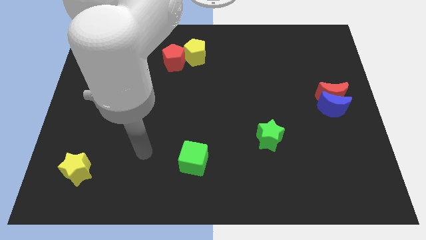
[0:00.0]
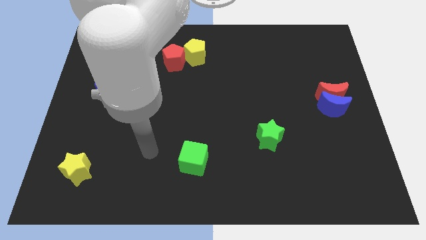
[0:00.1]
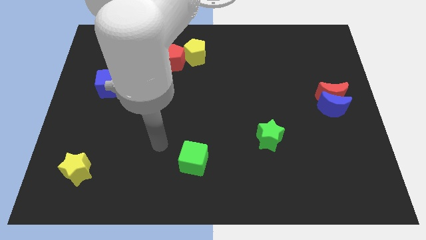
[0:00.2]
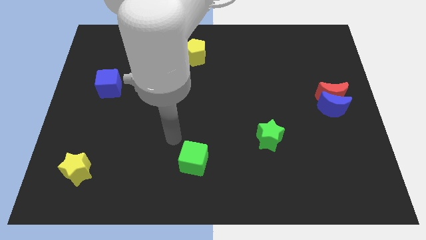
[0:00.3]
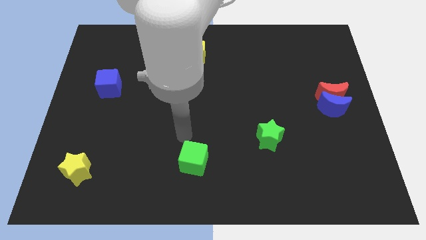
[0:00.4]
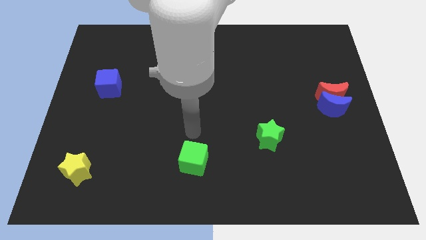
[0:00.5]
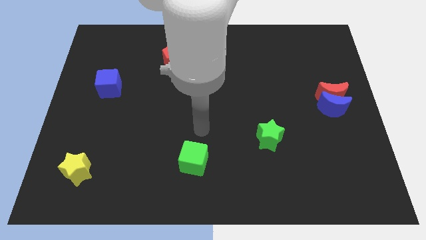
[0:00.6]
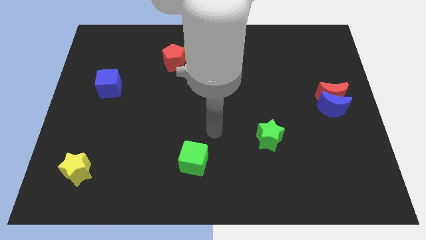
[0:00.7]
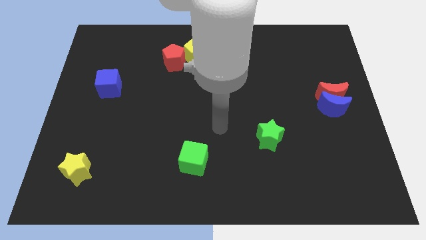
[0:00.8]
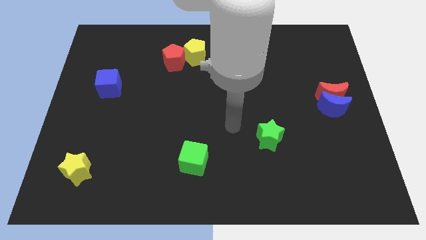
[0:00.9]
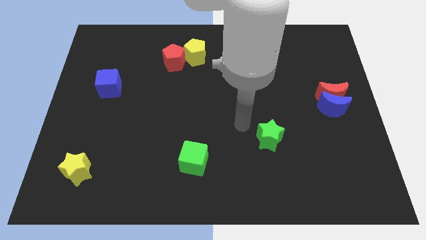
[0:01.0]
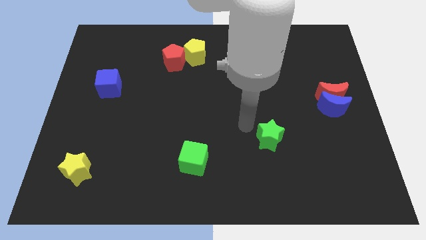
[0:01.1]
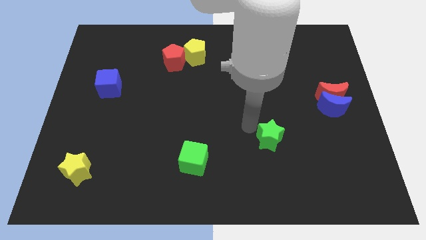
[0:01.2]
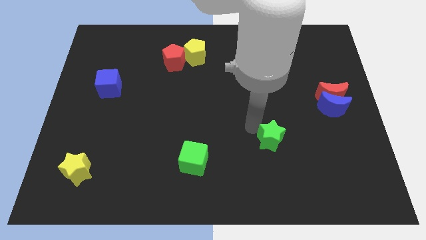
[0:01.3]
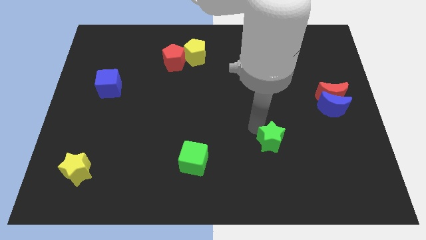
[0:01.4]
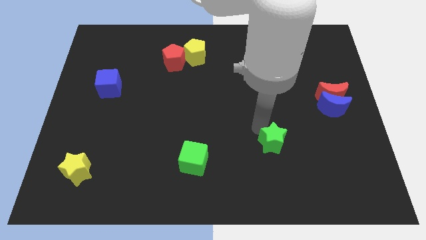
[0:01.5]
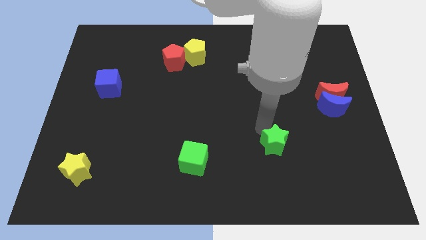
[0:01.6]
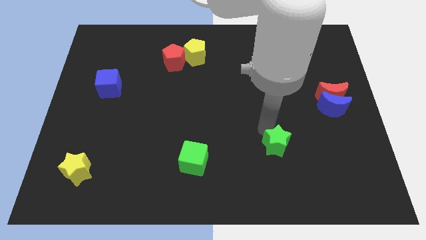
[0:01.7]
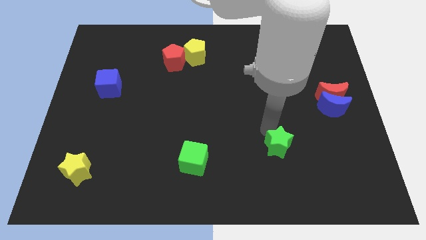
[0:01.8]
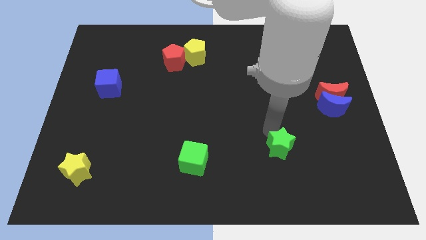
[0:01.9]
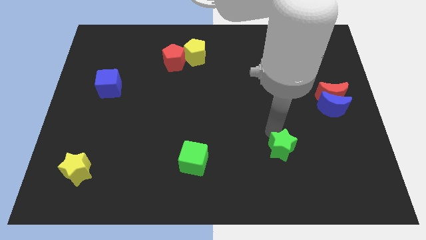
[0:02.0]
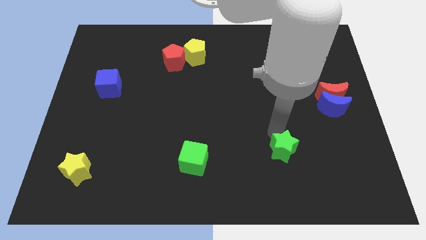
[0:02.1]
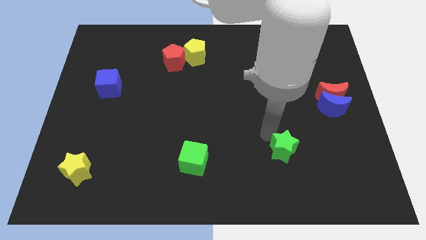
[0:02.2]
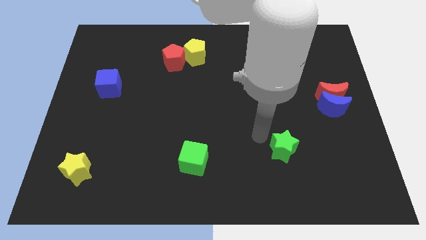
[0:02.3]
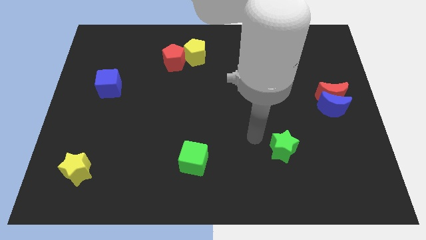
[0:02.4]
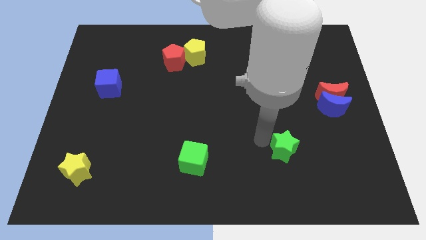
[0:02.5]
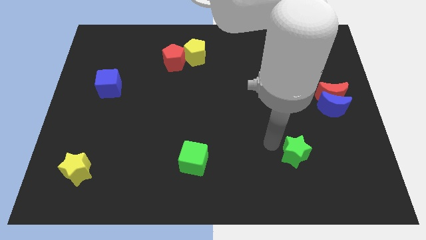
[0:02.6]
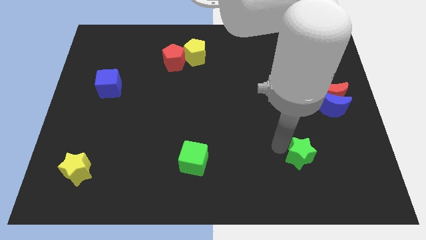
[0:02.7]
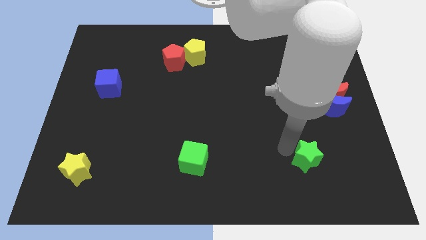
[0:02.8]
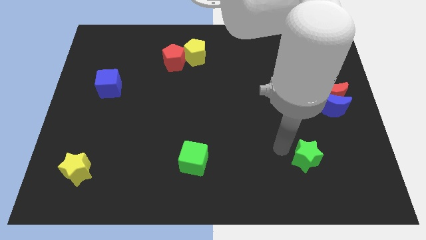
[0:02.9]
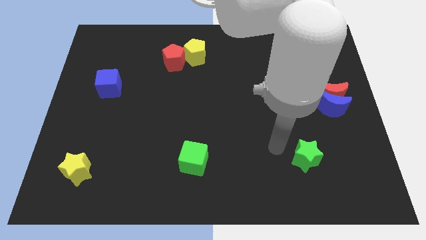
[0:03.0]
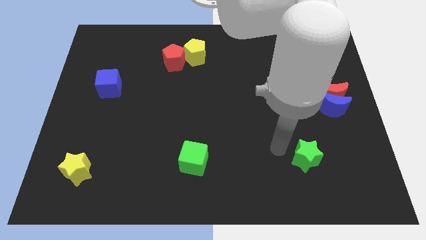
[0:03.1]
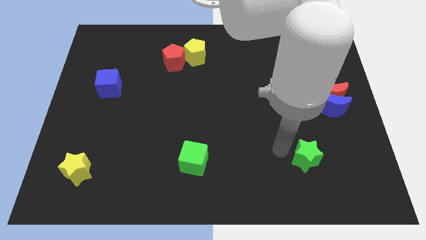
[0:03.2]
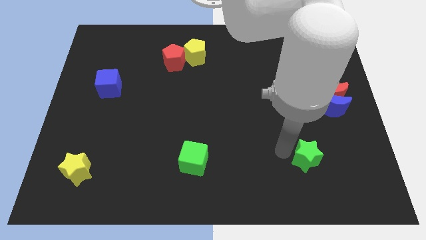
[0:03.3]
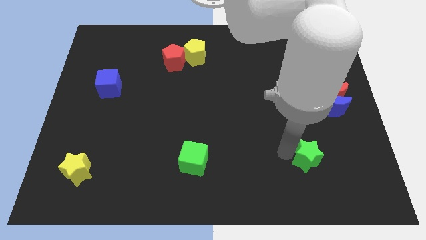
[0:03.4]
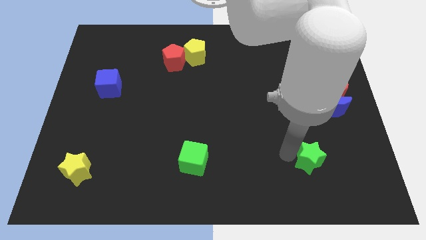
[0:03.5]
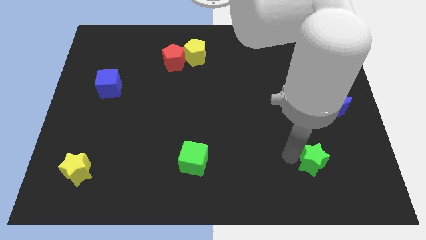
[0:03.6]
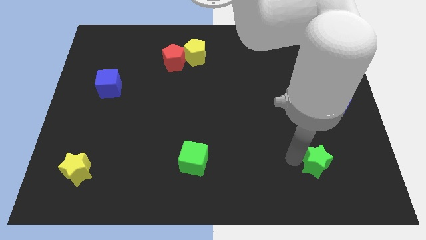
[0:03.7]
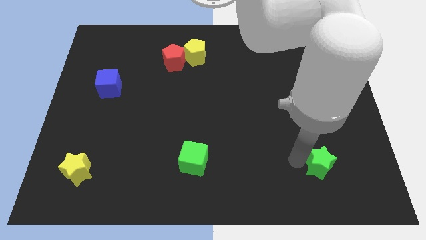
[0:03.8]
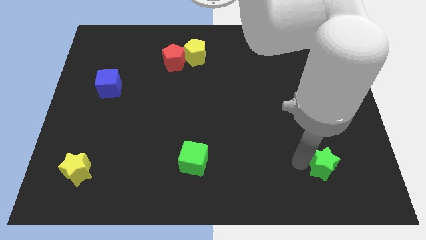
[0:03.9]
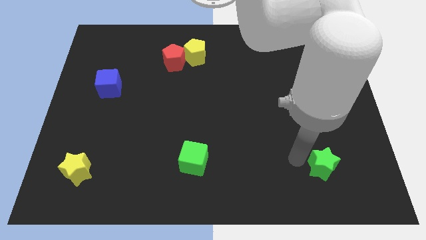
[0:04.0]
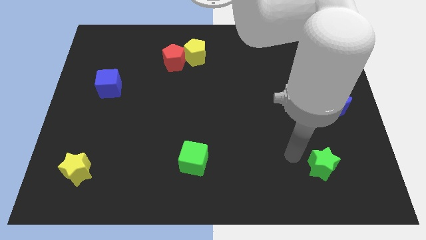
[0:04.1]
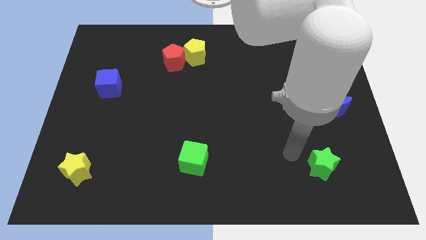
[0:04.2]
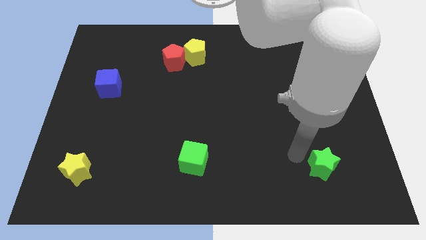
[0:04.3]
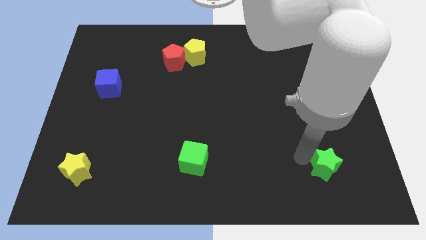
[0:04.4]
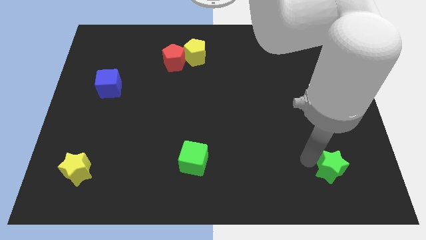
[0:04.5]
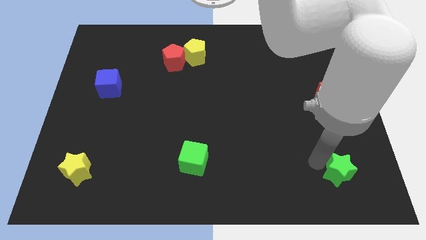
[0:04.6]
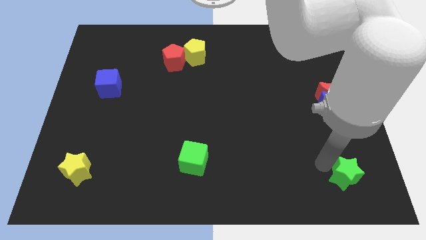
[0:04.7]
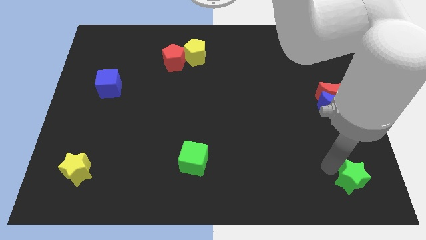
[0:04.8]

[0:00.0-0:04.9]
move the green star to the bottom right of the board

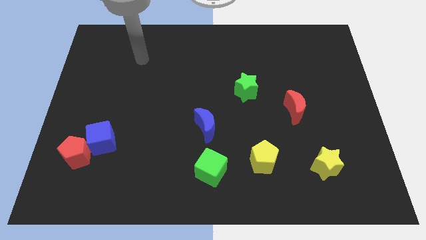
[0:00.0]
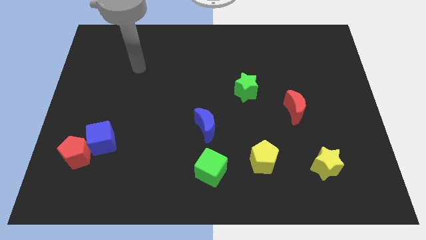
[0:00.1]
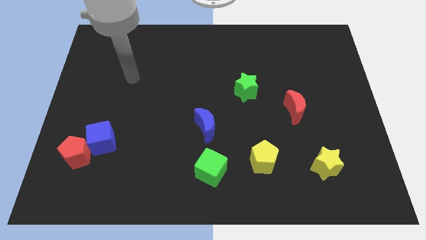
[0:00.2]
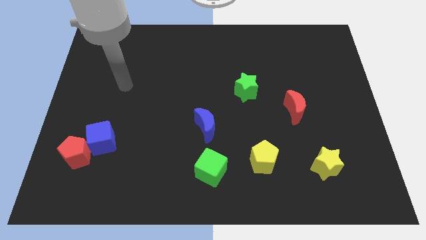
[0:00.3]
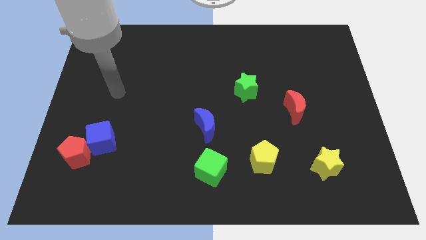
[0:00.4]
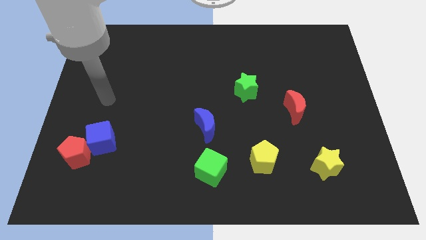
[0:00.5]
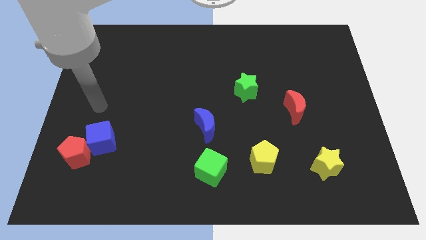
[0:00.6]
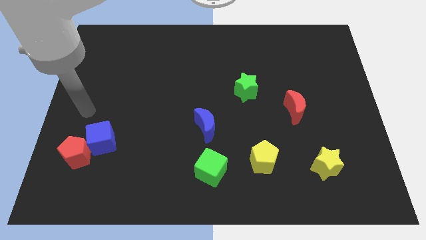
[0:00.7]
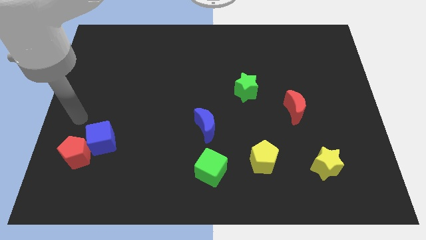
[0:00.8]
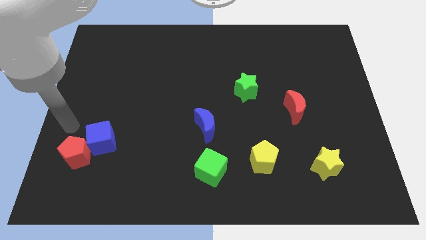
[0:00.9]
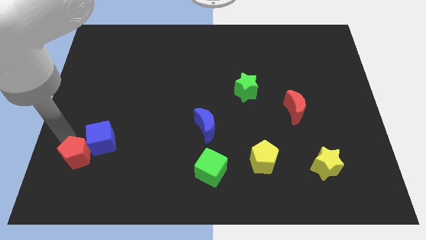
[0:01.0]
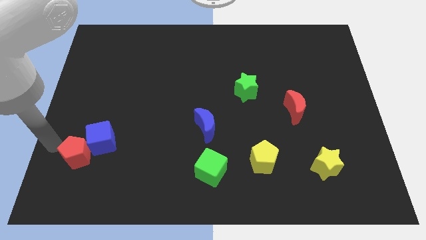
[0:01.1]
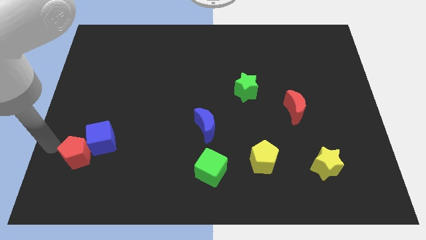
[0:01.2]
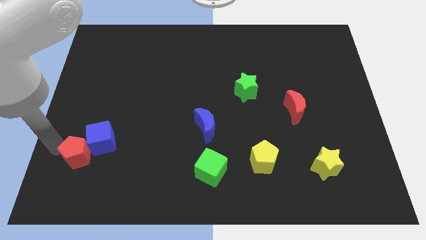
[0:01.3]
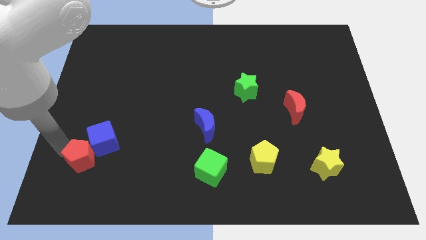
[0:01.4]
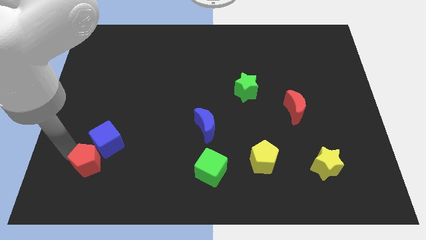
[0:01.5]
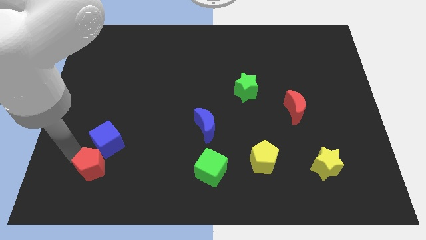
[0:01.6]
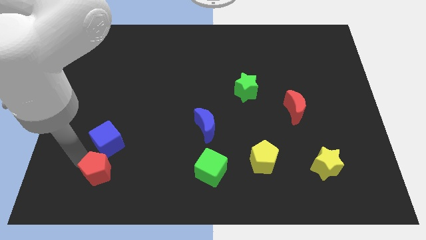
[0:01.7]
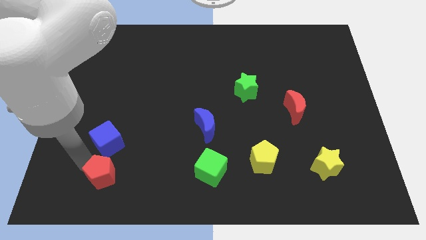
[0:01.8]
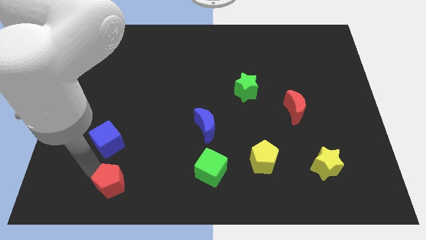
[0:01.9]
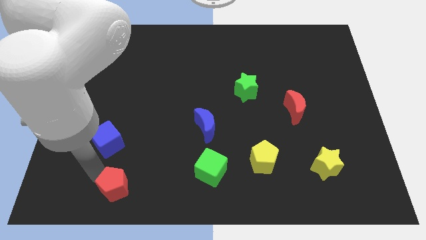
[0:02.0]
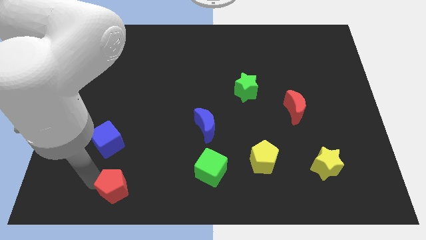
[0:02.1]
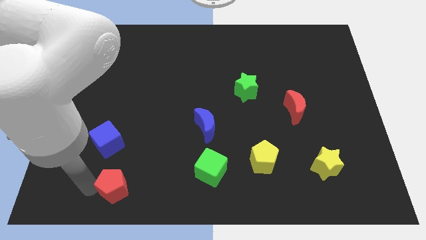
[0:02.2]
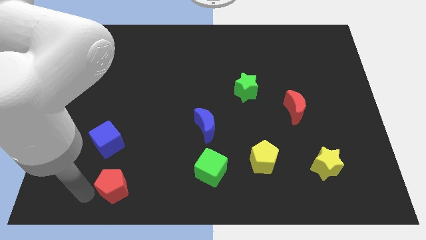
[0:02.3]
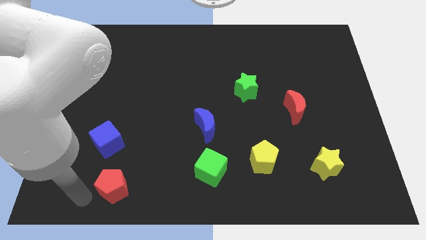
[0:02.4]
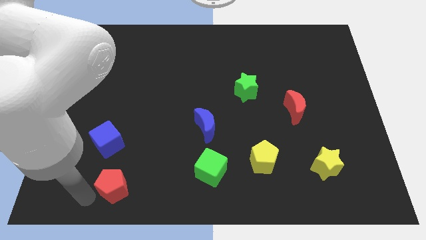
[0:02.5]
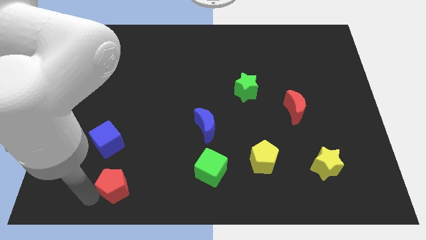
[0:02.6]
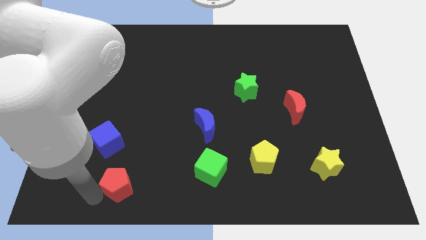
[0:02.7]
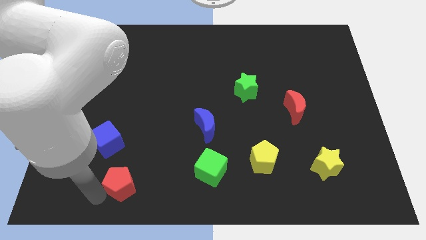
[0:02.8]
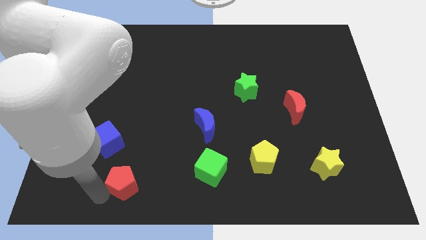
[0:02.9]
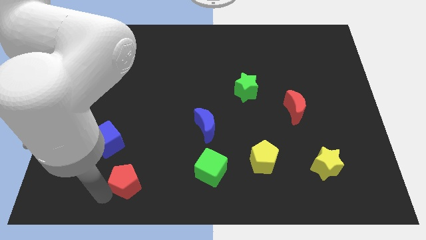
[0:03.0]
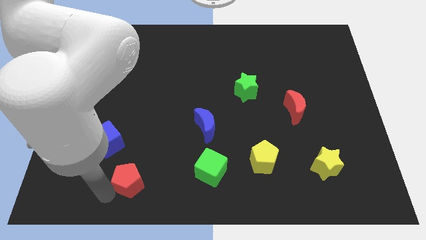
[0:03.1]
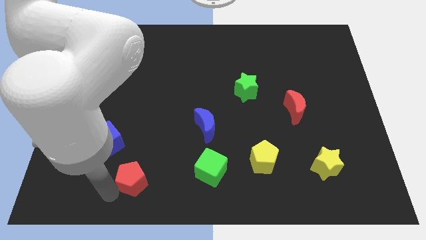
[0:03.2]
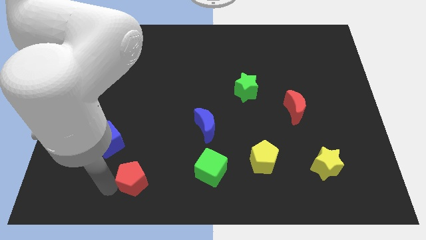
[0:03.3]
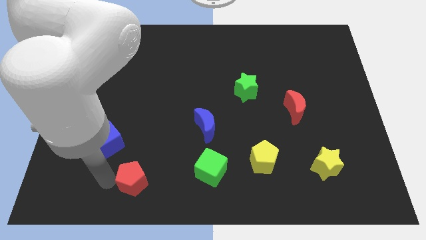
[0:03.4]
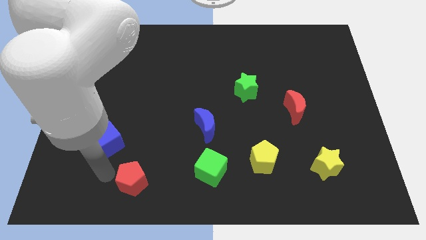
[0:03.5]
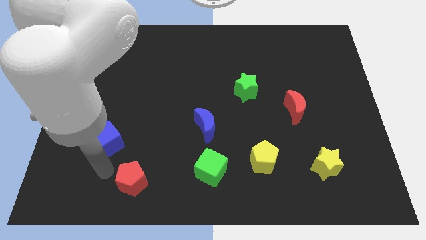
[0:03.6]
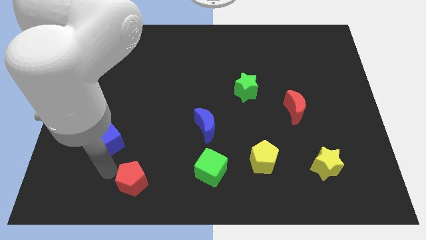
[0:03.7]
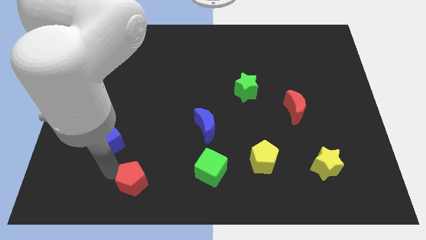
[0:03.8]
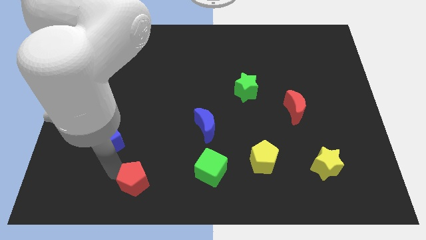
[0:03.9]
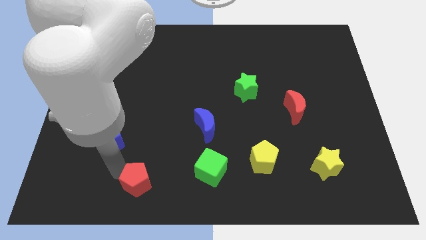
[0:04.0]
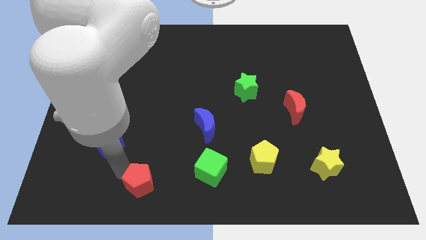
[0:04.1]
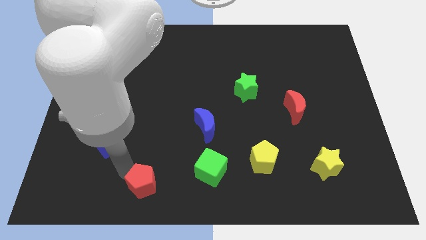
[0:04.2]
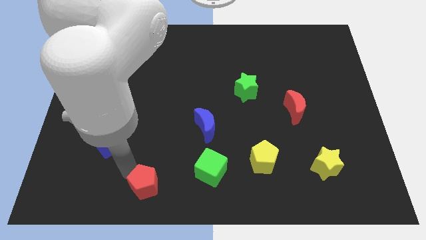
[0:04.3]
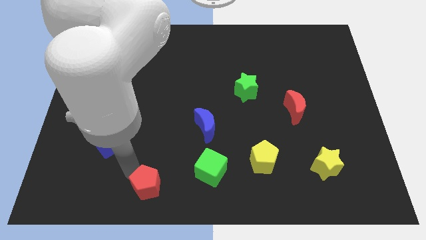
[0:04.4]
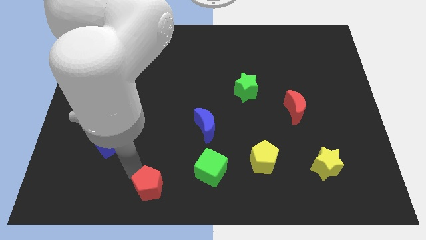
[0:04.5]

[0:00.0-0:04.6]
push the red pentagon to the bottom side
